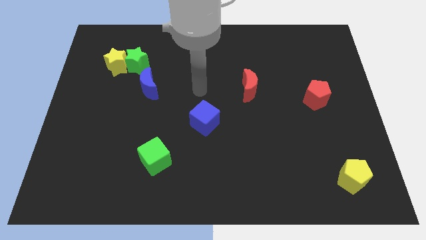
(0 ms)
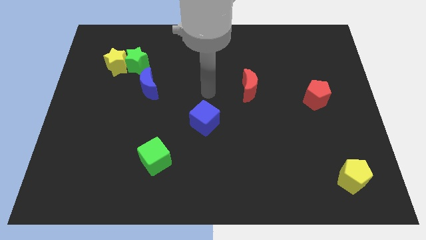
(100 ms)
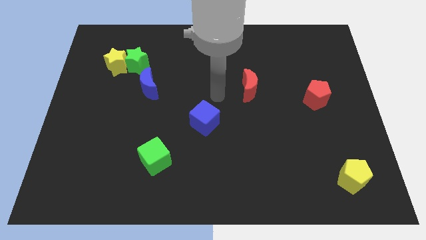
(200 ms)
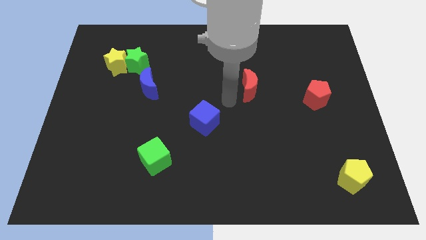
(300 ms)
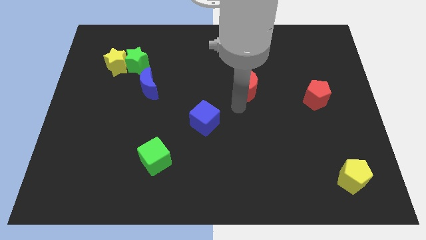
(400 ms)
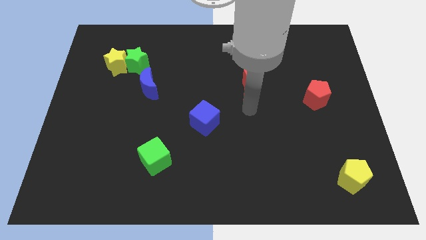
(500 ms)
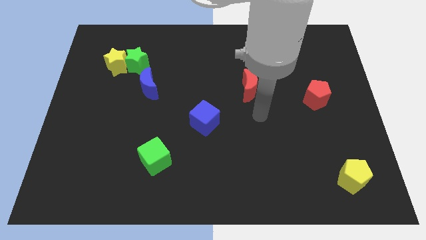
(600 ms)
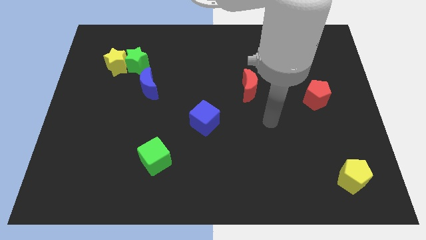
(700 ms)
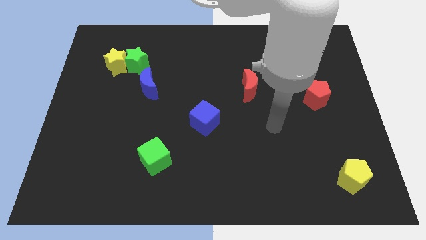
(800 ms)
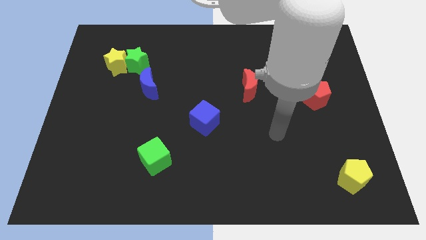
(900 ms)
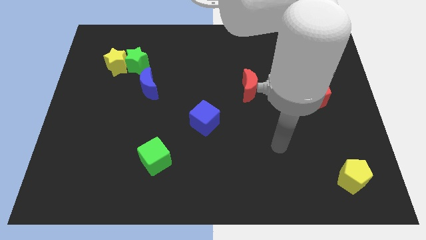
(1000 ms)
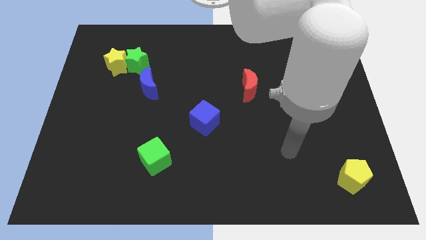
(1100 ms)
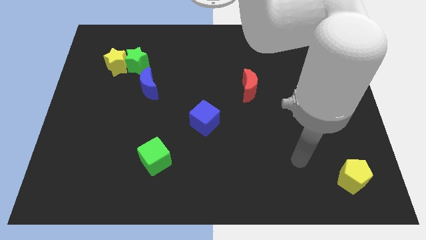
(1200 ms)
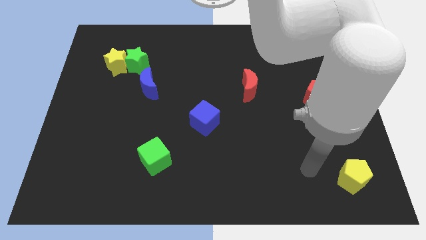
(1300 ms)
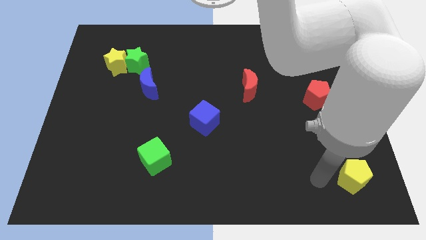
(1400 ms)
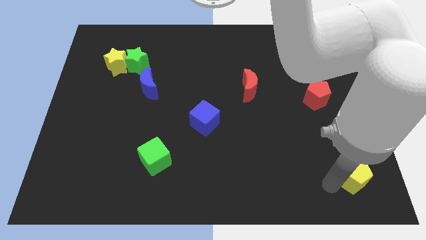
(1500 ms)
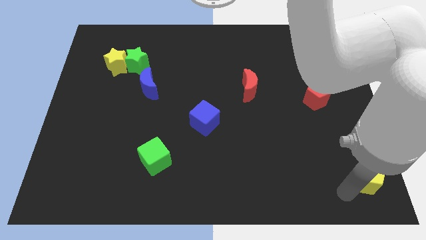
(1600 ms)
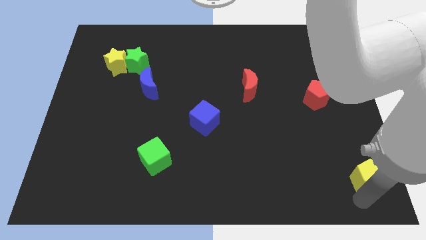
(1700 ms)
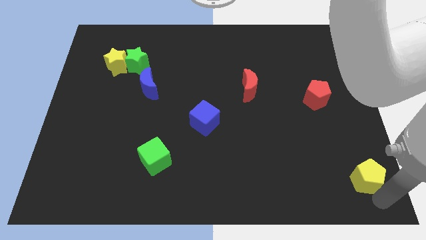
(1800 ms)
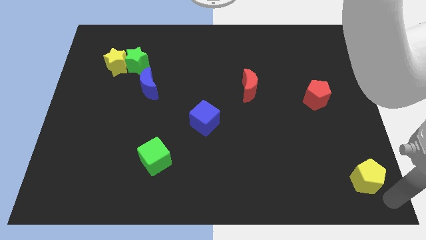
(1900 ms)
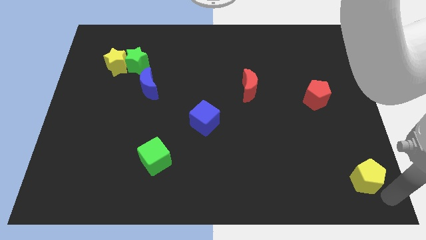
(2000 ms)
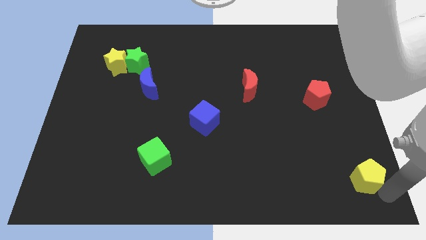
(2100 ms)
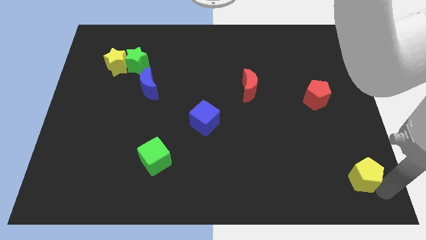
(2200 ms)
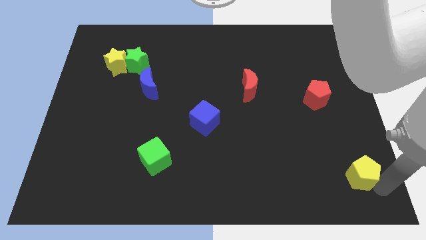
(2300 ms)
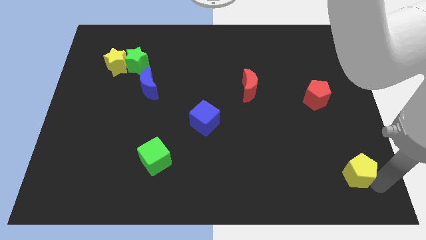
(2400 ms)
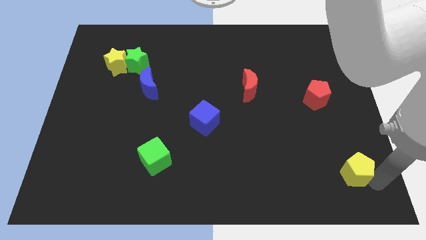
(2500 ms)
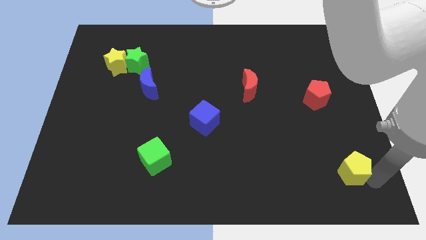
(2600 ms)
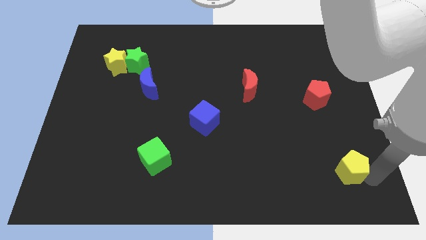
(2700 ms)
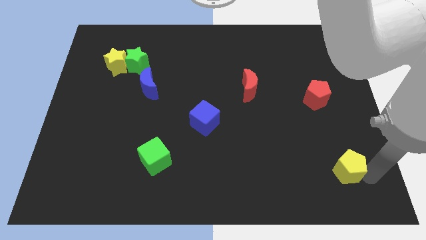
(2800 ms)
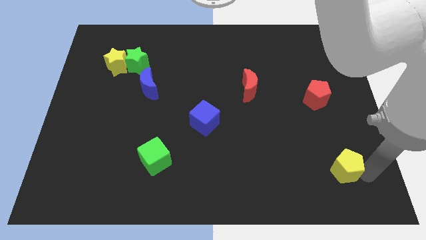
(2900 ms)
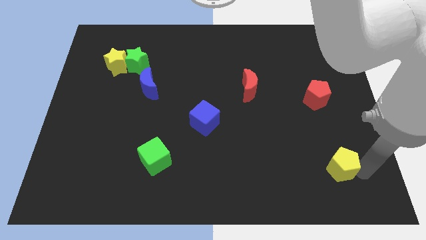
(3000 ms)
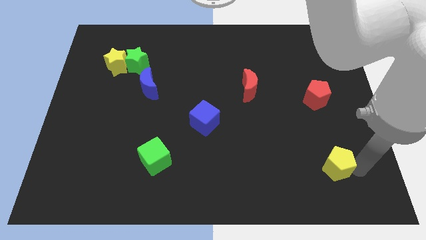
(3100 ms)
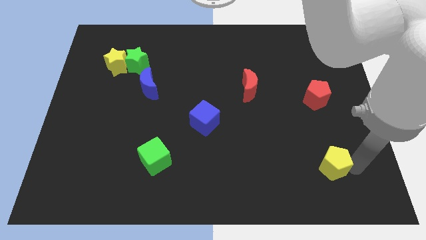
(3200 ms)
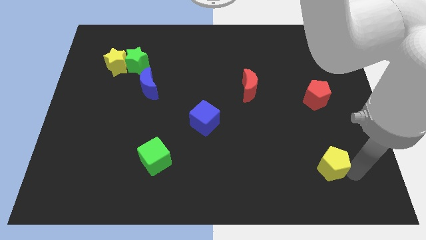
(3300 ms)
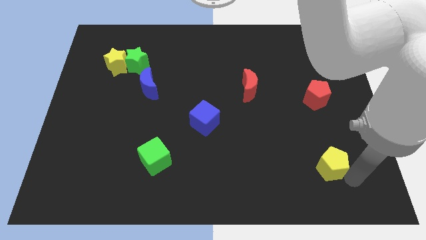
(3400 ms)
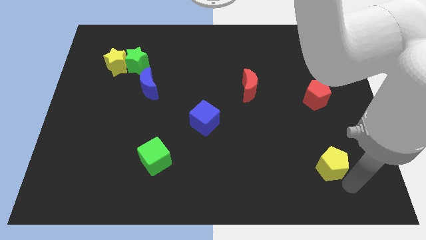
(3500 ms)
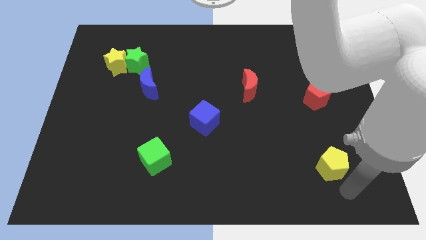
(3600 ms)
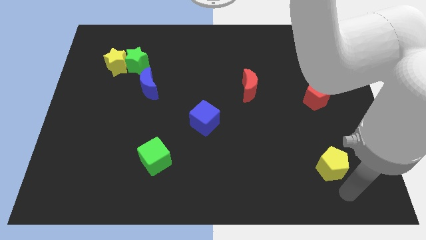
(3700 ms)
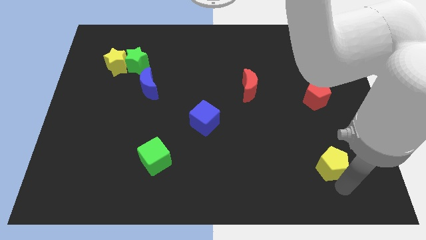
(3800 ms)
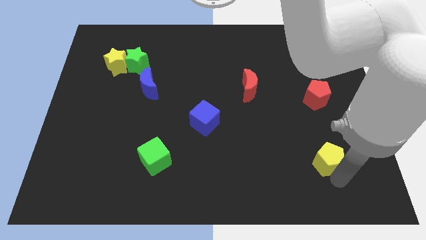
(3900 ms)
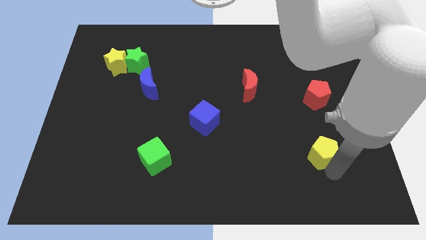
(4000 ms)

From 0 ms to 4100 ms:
move the yellow pentagon slightly upwards and to the left

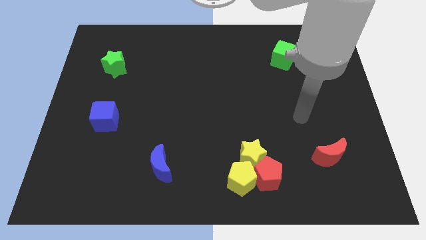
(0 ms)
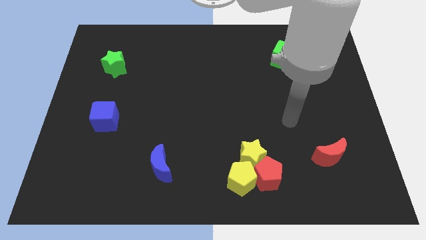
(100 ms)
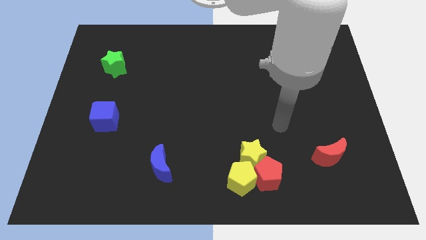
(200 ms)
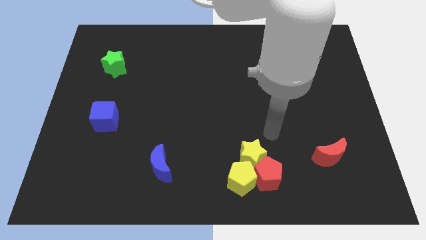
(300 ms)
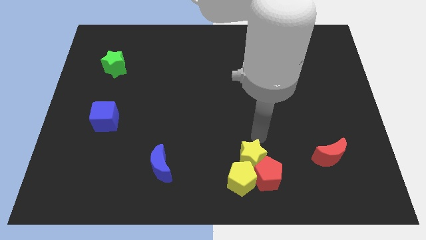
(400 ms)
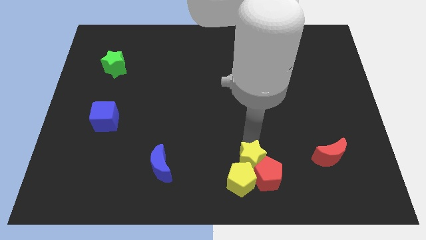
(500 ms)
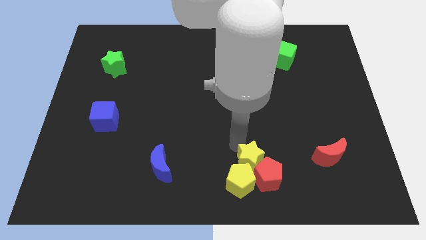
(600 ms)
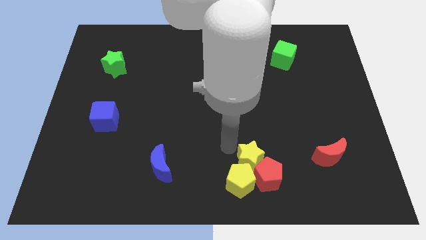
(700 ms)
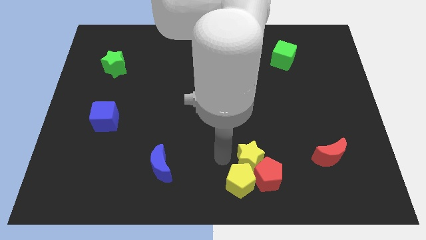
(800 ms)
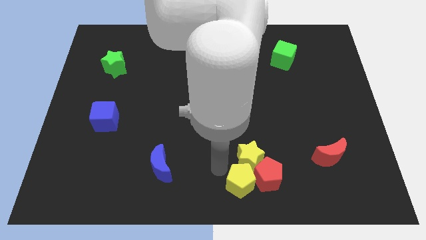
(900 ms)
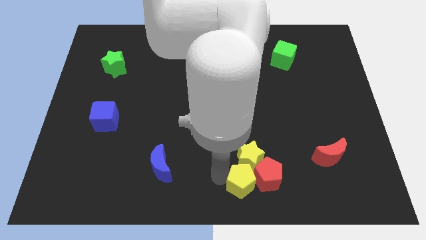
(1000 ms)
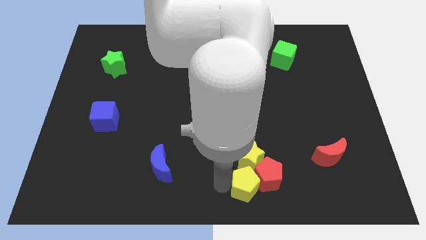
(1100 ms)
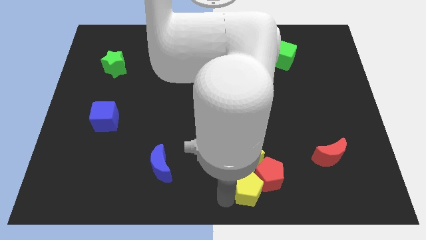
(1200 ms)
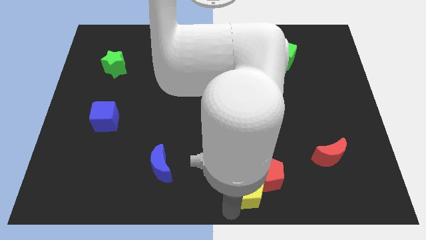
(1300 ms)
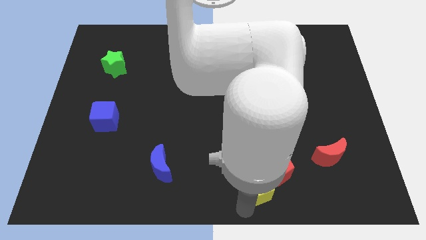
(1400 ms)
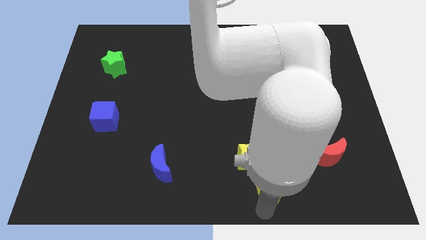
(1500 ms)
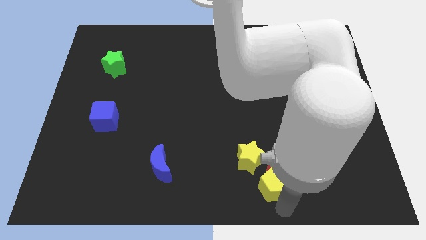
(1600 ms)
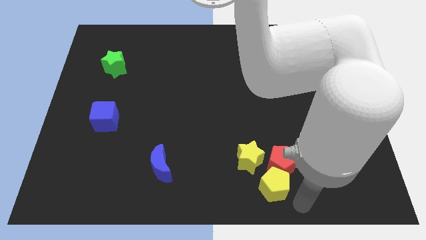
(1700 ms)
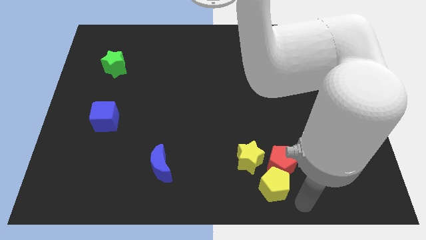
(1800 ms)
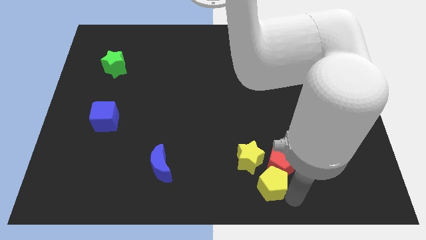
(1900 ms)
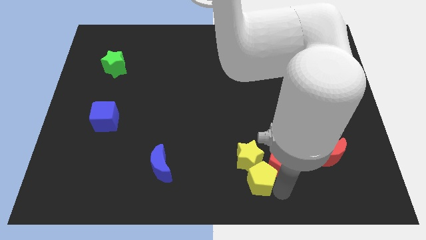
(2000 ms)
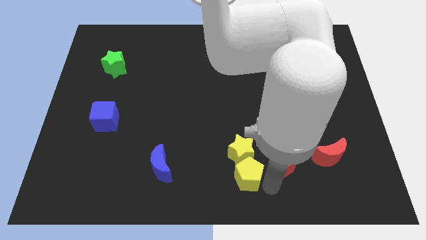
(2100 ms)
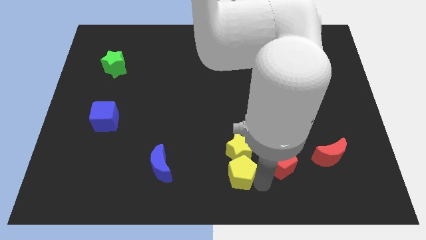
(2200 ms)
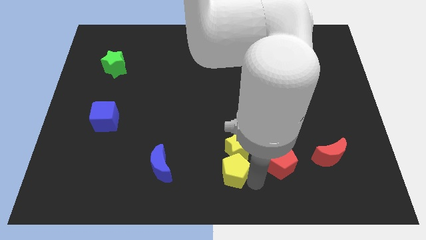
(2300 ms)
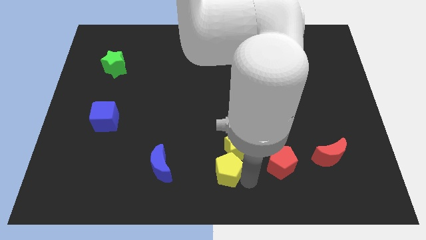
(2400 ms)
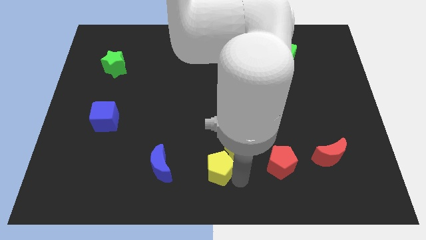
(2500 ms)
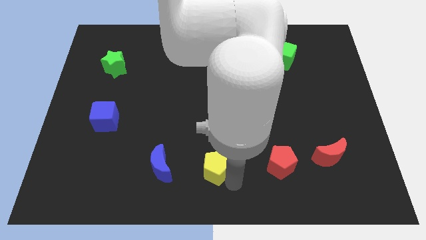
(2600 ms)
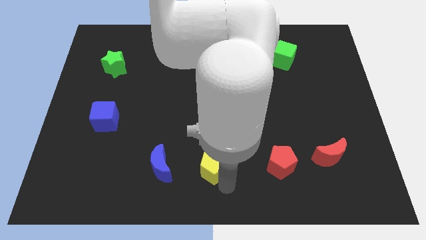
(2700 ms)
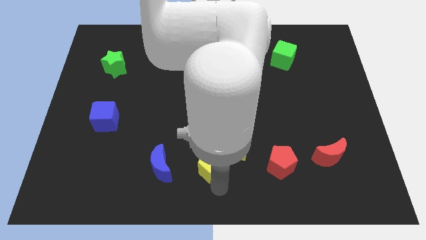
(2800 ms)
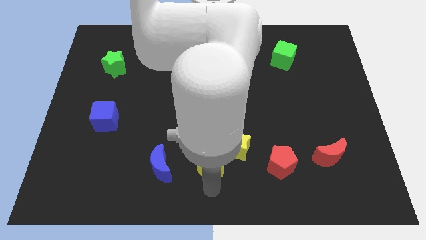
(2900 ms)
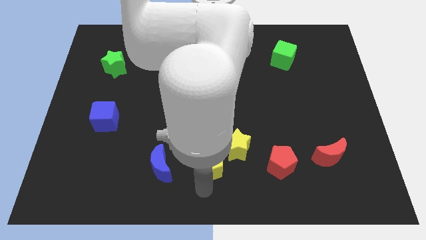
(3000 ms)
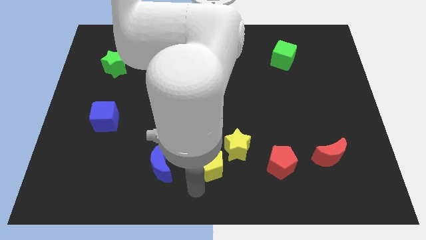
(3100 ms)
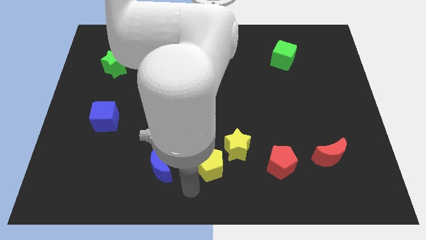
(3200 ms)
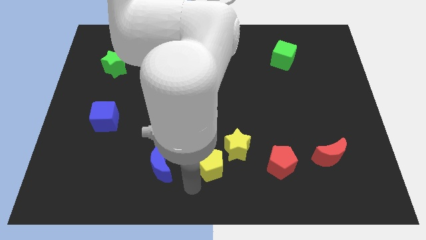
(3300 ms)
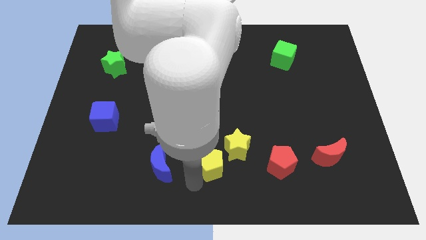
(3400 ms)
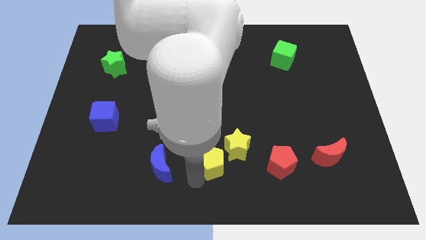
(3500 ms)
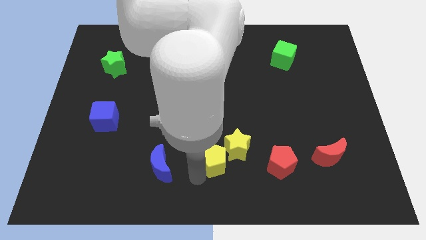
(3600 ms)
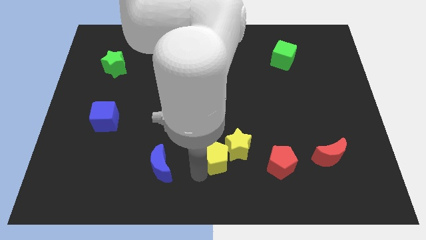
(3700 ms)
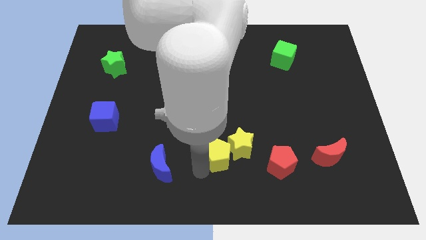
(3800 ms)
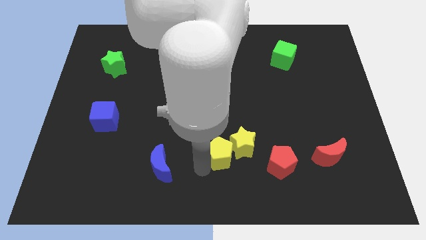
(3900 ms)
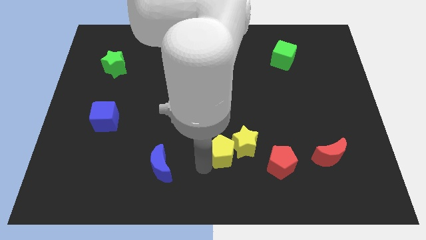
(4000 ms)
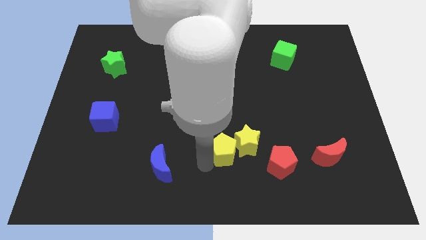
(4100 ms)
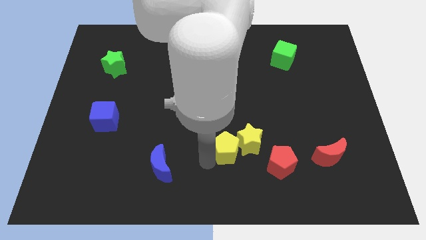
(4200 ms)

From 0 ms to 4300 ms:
move the yellow pentagon a little bit upwards
